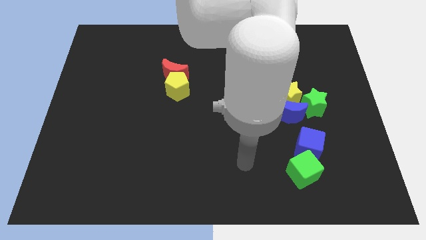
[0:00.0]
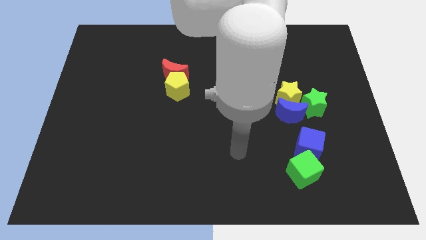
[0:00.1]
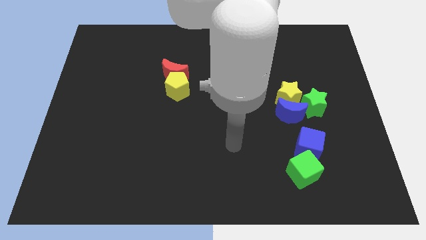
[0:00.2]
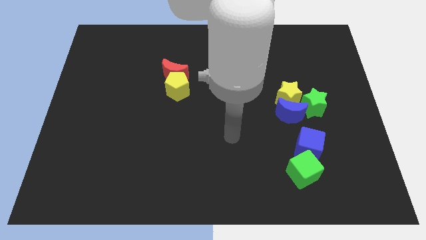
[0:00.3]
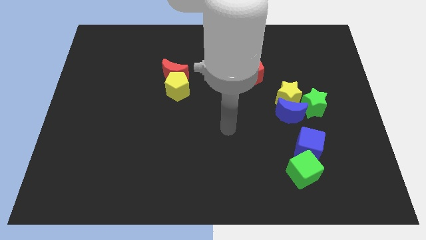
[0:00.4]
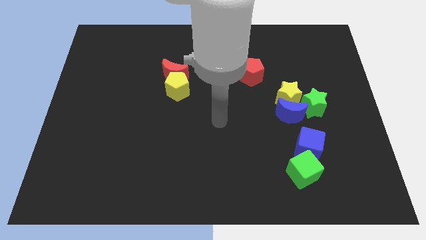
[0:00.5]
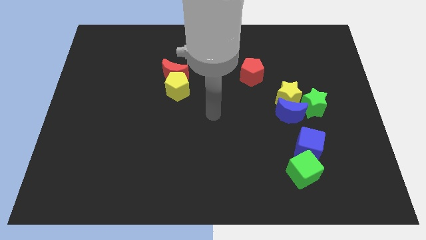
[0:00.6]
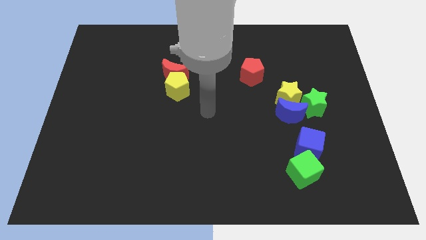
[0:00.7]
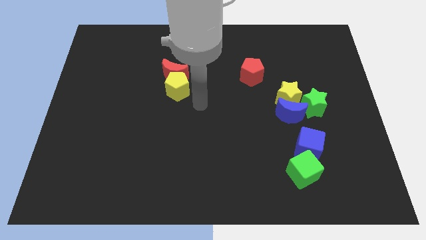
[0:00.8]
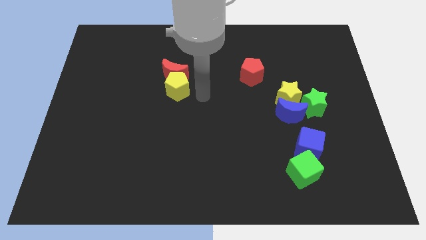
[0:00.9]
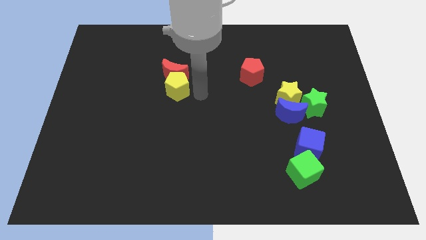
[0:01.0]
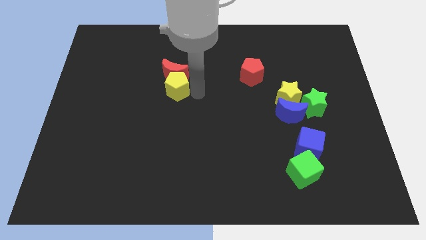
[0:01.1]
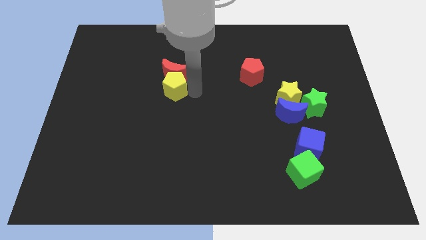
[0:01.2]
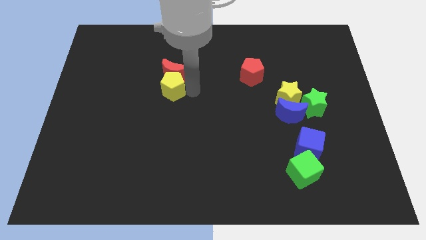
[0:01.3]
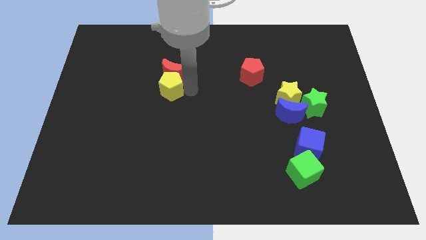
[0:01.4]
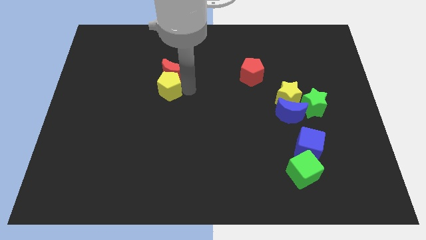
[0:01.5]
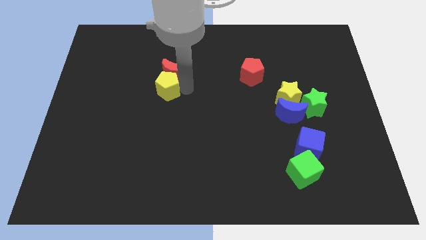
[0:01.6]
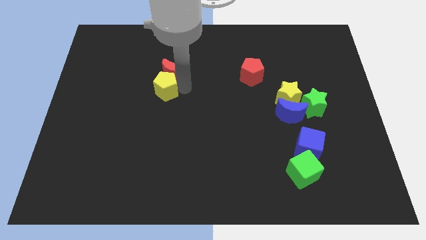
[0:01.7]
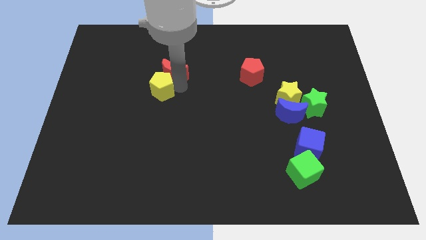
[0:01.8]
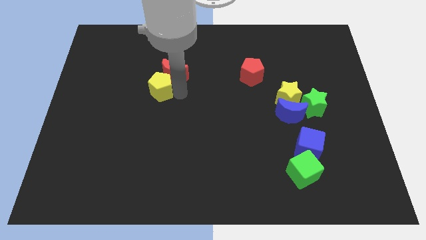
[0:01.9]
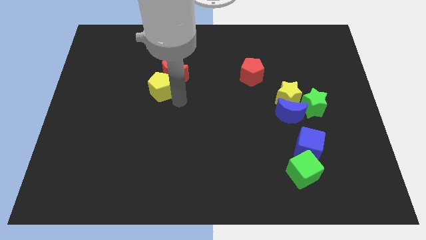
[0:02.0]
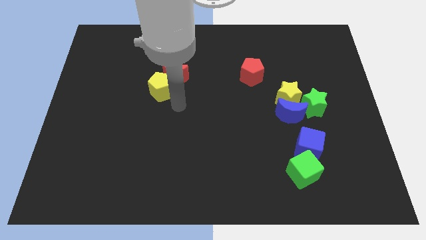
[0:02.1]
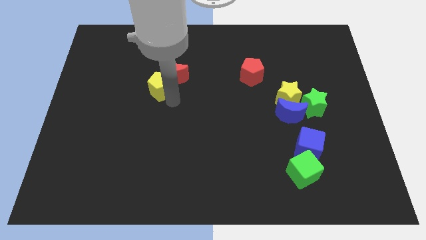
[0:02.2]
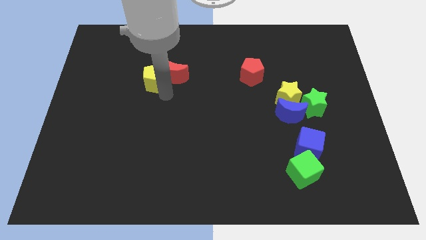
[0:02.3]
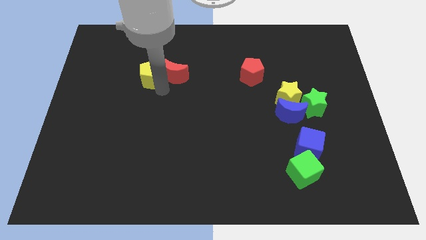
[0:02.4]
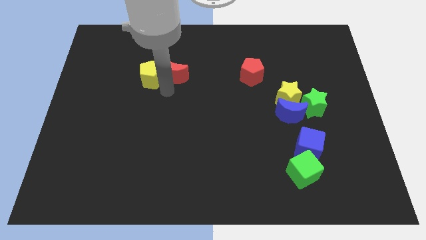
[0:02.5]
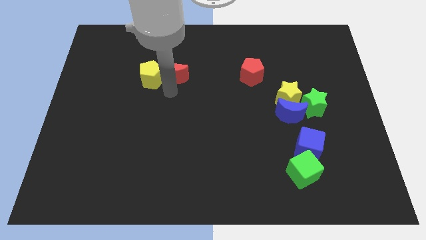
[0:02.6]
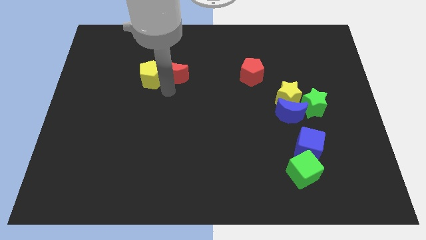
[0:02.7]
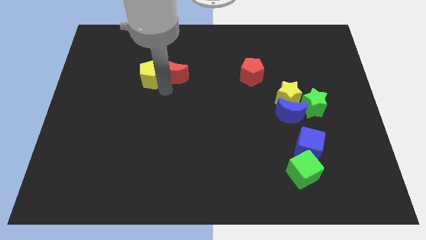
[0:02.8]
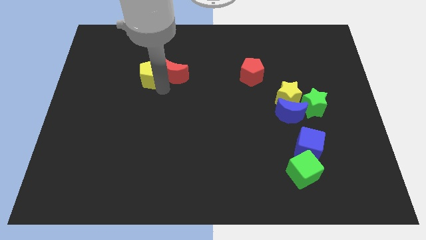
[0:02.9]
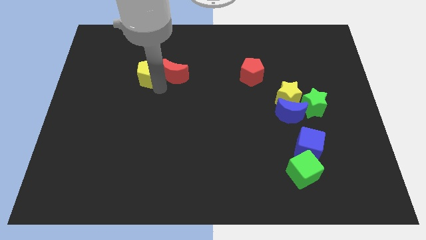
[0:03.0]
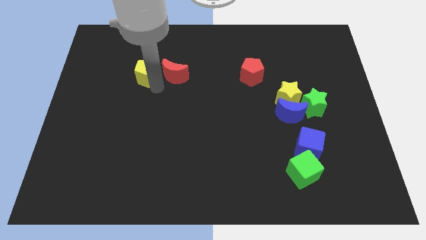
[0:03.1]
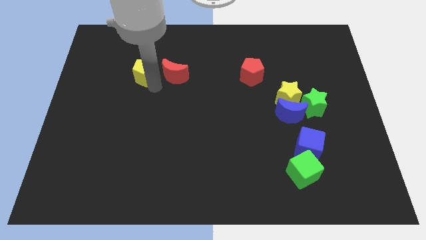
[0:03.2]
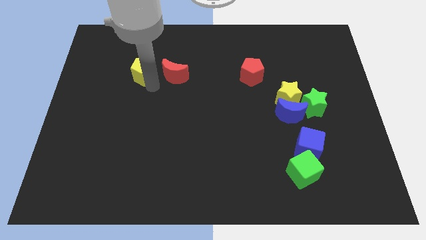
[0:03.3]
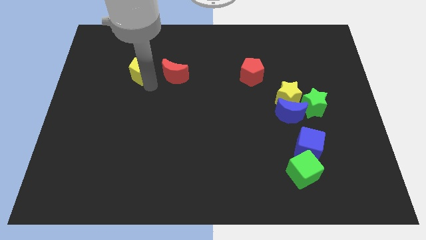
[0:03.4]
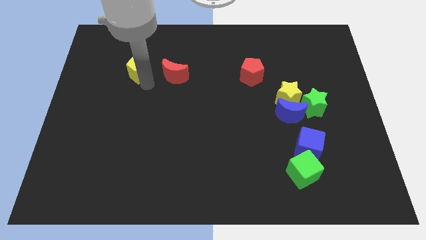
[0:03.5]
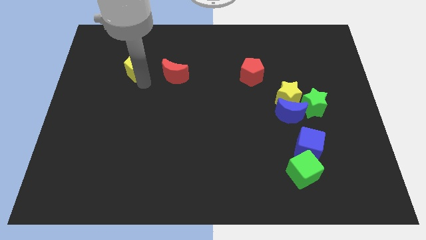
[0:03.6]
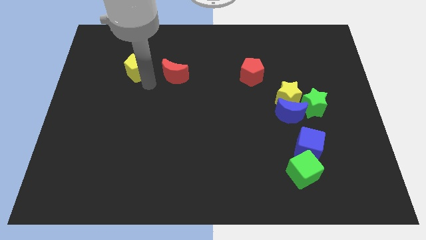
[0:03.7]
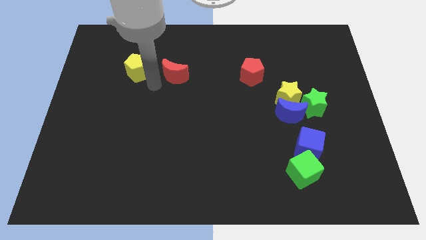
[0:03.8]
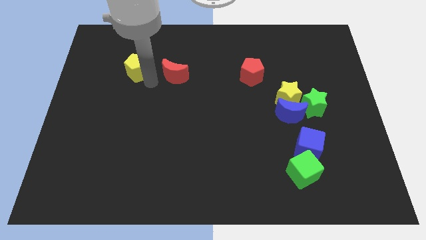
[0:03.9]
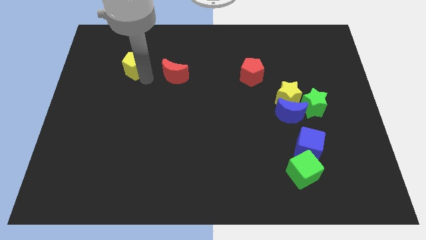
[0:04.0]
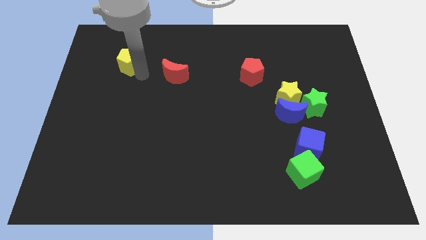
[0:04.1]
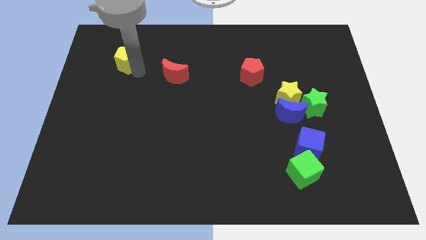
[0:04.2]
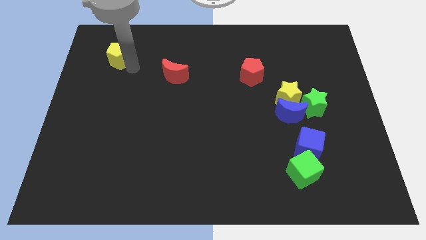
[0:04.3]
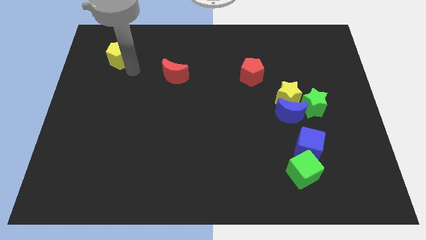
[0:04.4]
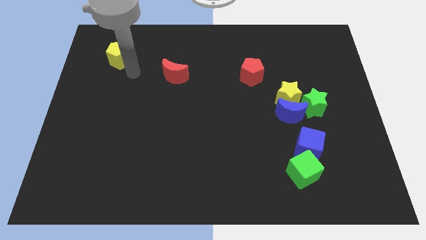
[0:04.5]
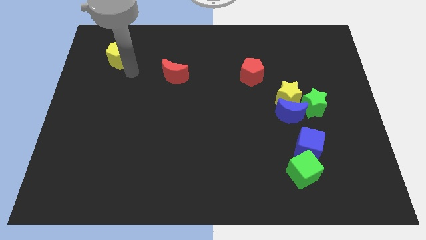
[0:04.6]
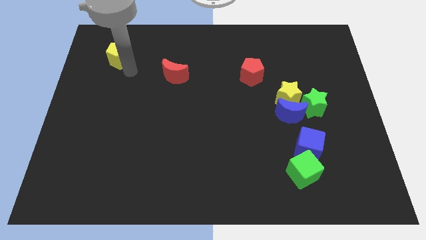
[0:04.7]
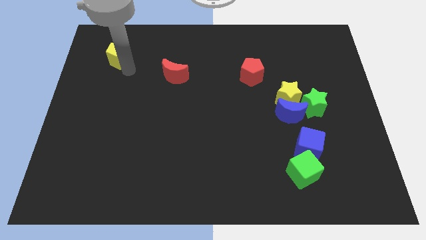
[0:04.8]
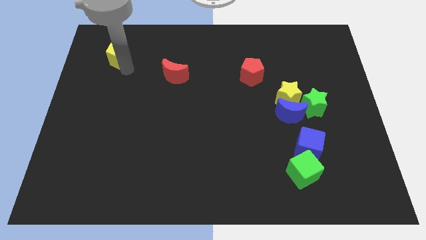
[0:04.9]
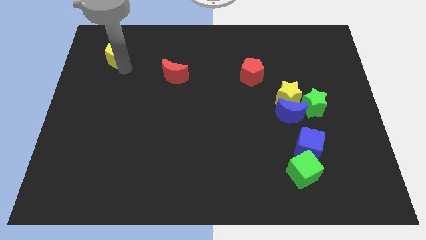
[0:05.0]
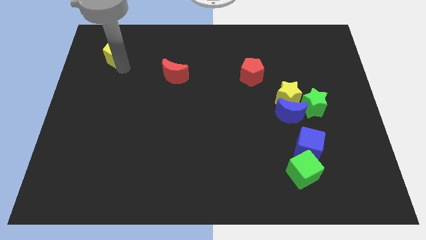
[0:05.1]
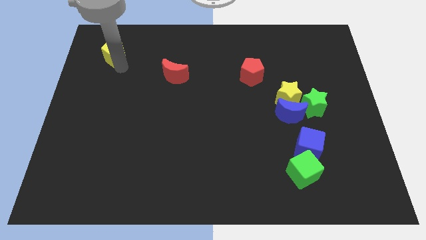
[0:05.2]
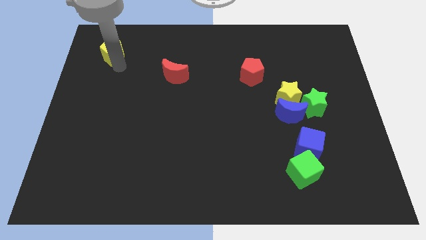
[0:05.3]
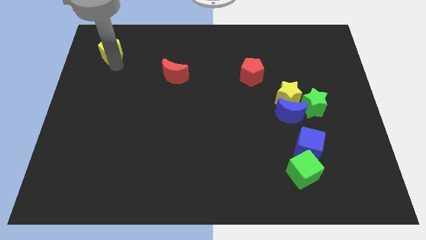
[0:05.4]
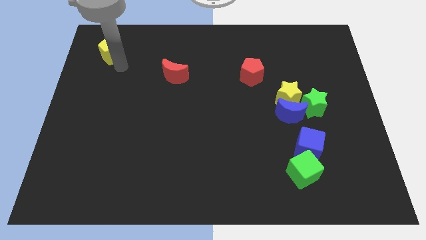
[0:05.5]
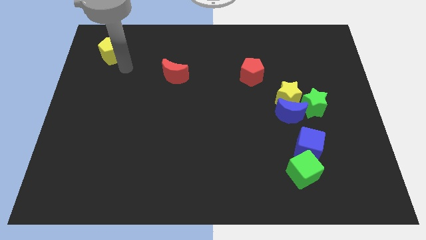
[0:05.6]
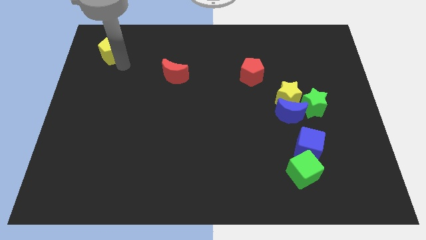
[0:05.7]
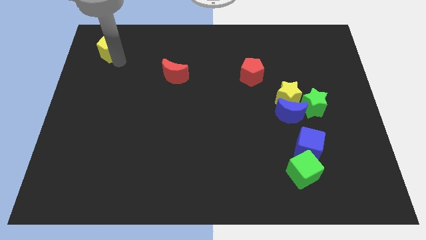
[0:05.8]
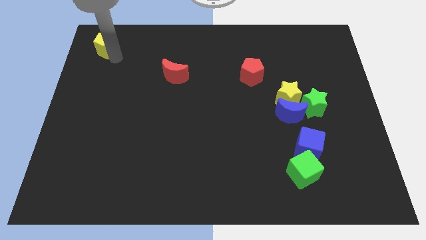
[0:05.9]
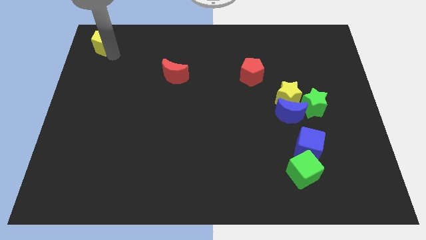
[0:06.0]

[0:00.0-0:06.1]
move the yellow pentagon to the top left
